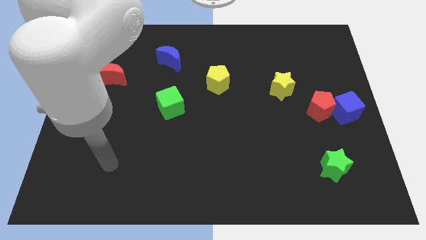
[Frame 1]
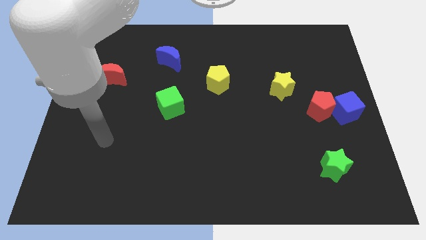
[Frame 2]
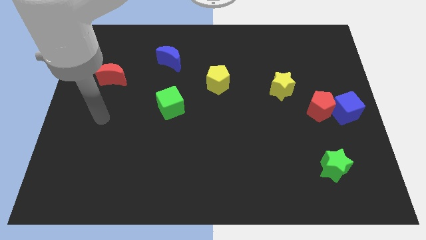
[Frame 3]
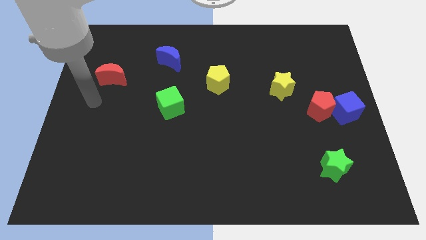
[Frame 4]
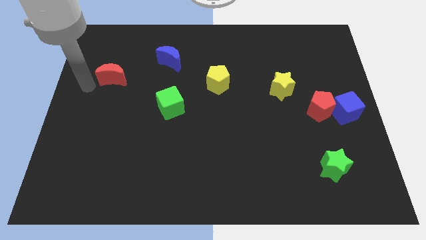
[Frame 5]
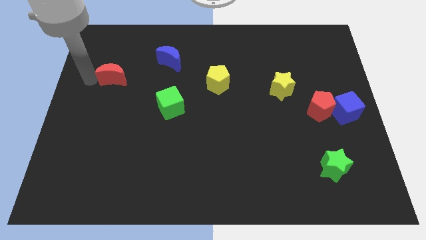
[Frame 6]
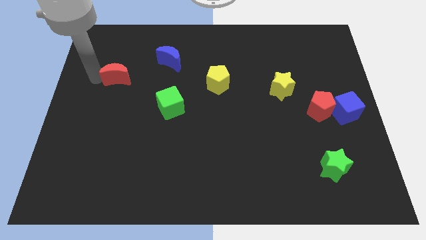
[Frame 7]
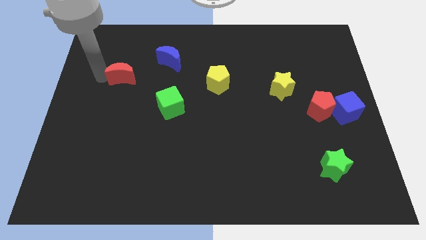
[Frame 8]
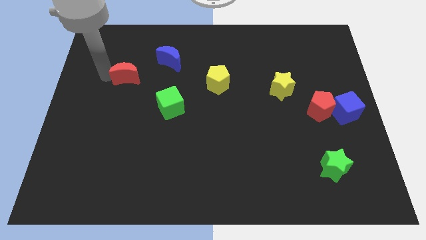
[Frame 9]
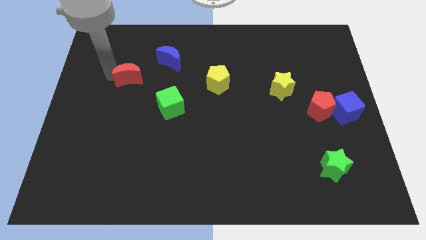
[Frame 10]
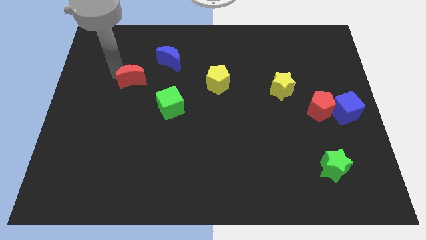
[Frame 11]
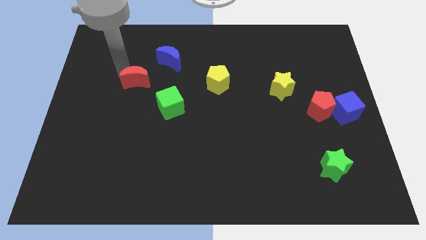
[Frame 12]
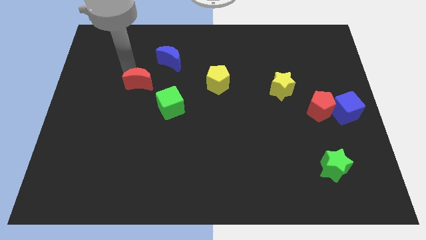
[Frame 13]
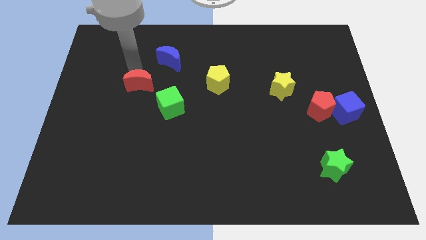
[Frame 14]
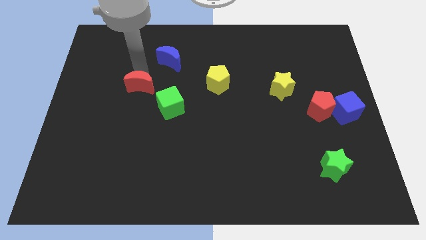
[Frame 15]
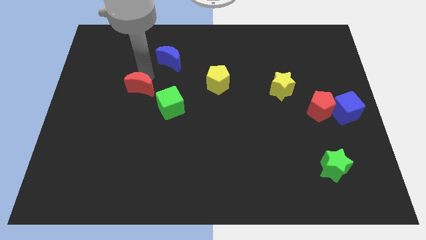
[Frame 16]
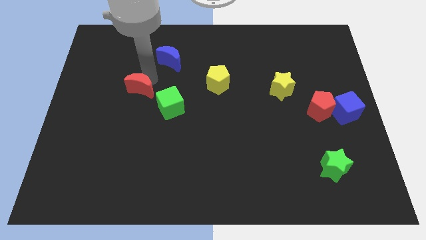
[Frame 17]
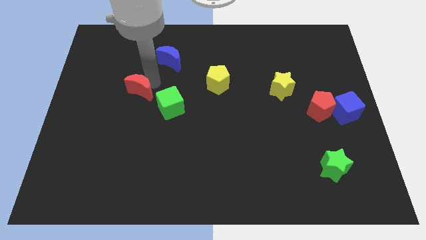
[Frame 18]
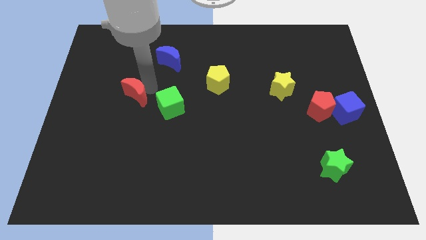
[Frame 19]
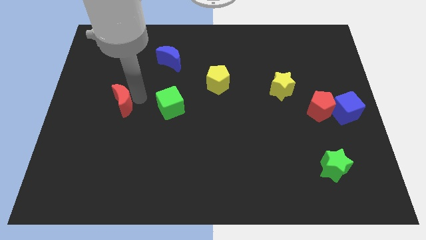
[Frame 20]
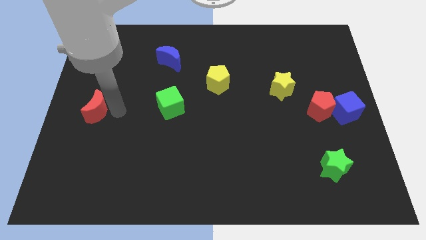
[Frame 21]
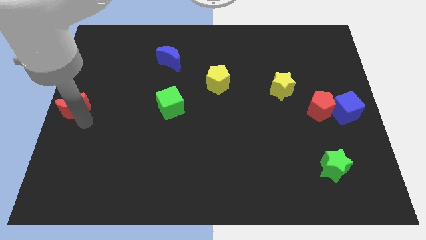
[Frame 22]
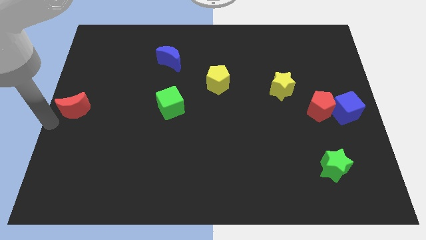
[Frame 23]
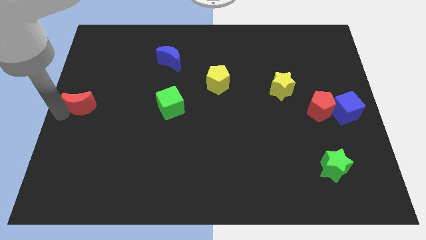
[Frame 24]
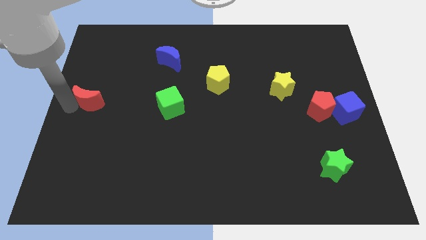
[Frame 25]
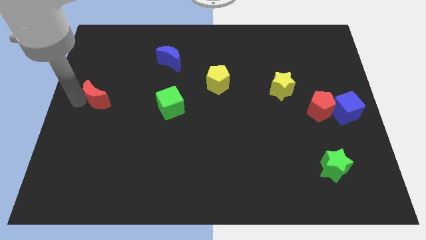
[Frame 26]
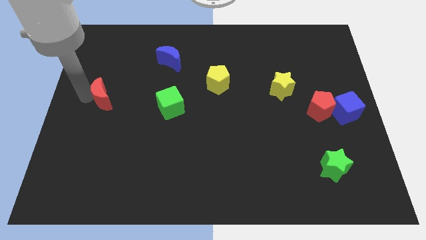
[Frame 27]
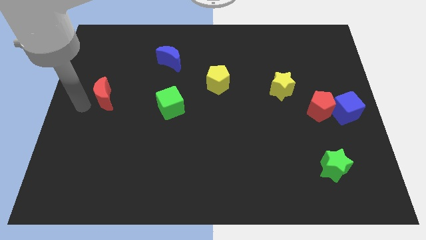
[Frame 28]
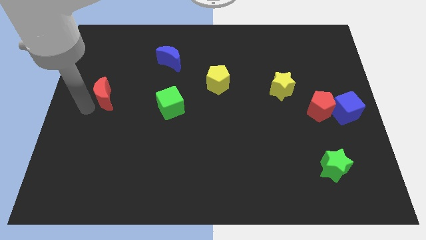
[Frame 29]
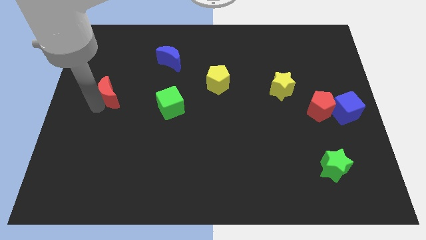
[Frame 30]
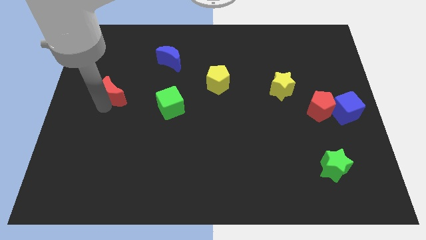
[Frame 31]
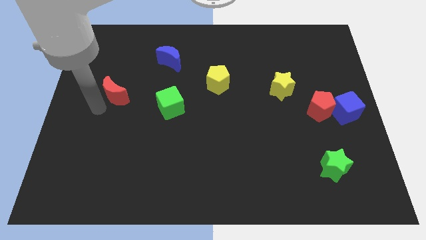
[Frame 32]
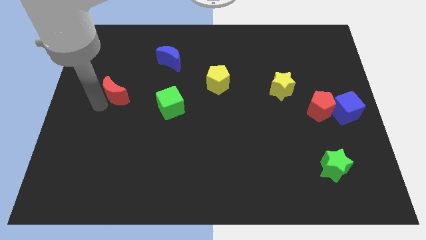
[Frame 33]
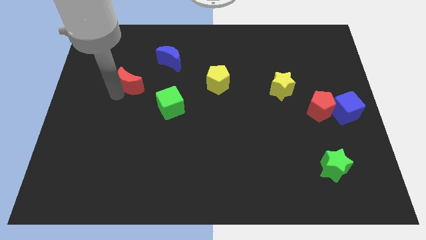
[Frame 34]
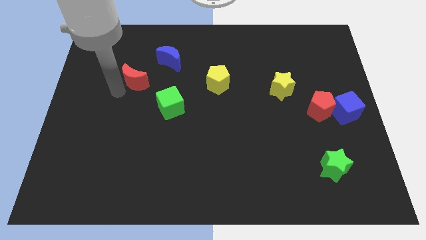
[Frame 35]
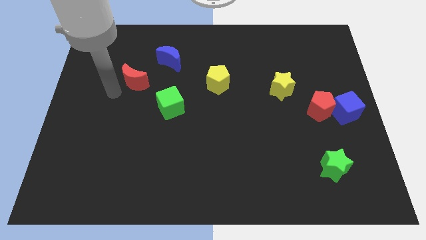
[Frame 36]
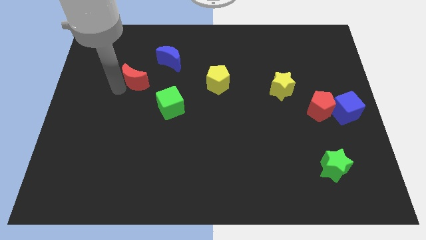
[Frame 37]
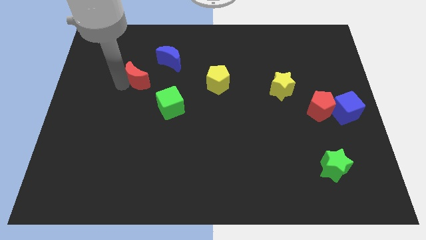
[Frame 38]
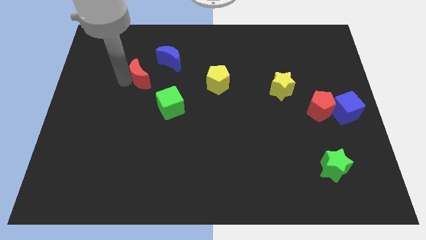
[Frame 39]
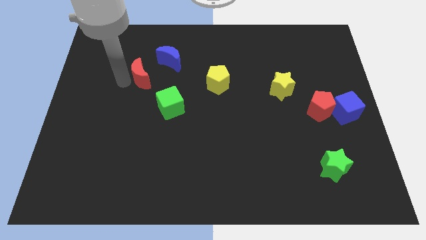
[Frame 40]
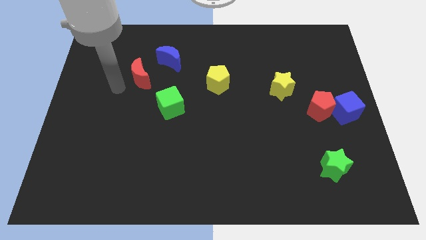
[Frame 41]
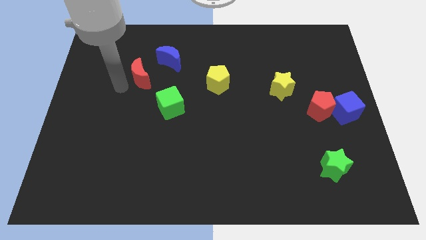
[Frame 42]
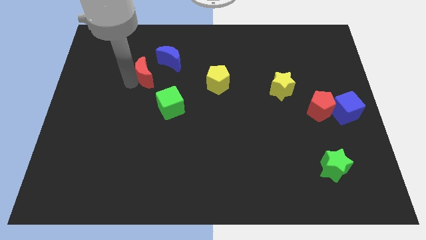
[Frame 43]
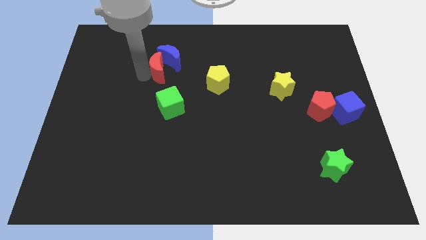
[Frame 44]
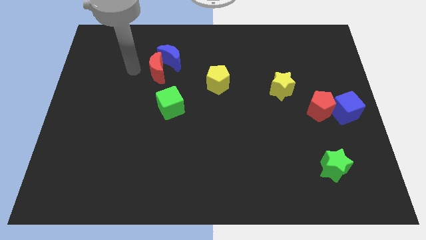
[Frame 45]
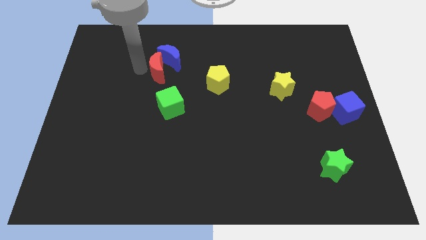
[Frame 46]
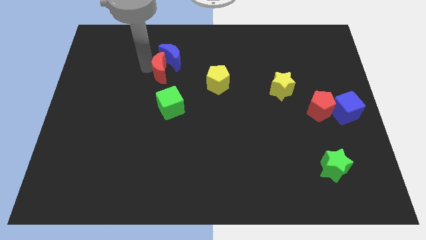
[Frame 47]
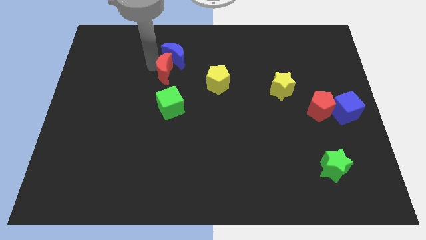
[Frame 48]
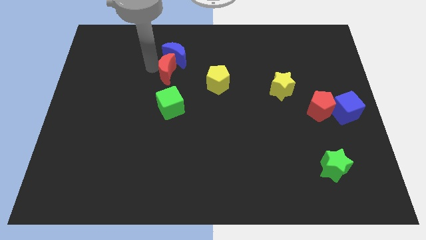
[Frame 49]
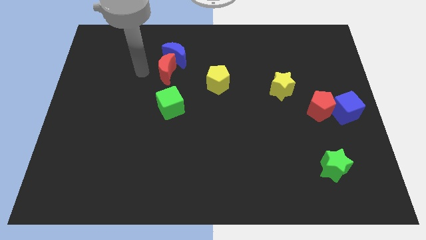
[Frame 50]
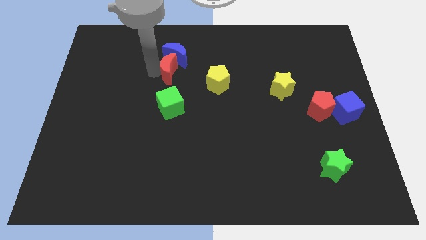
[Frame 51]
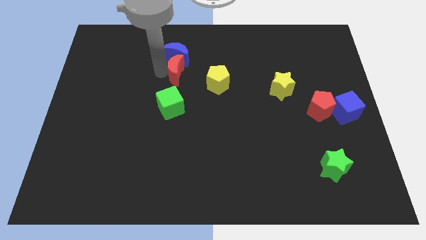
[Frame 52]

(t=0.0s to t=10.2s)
move the red moon to the bottom right of the blue moon

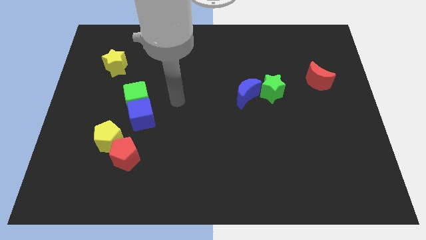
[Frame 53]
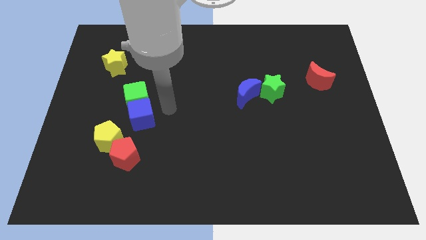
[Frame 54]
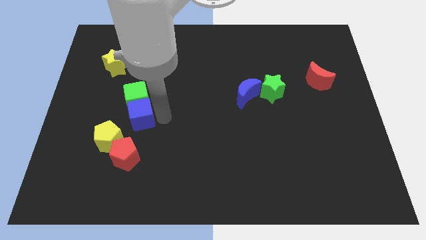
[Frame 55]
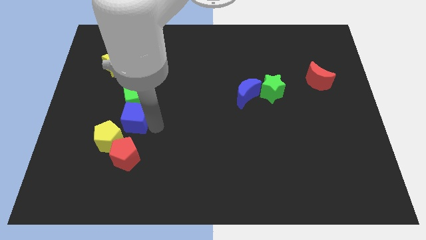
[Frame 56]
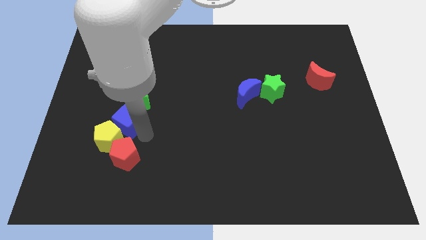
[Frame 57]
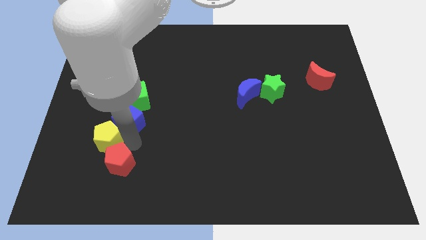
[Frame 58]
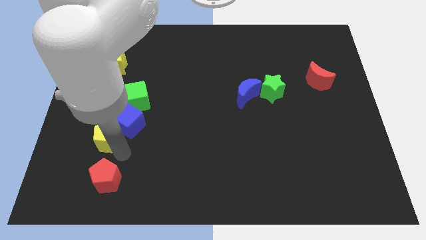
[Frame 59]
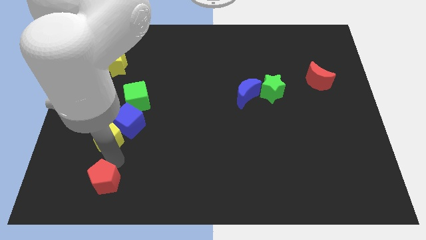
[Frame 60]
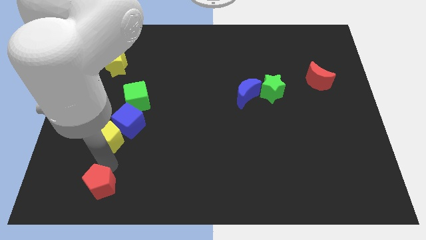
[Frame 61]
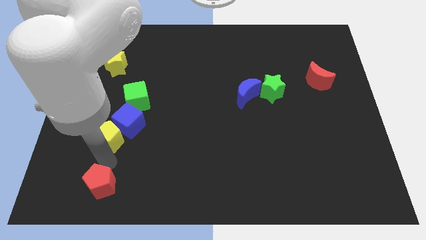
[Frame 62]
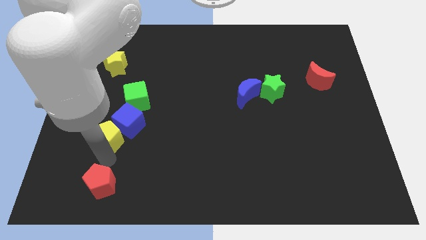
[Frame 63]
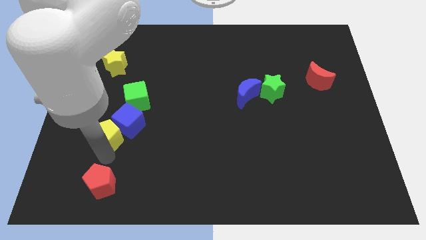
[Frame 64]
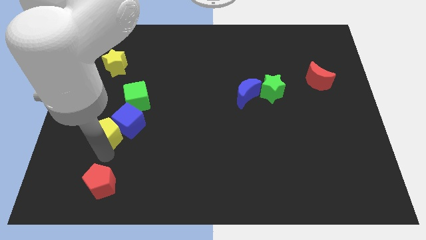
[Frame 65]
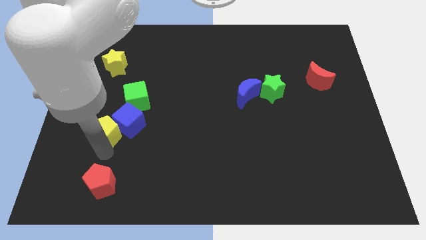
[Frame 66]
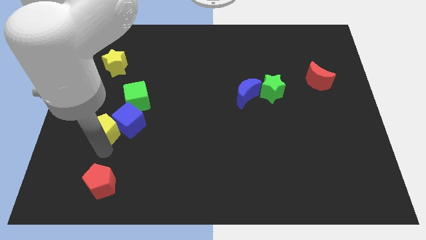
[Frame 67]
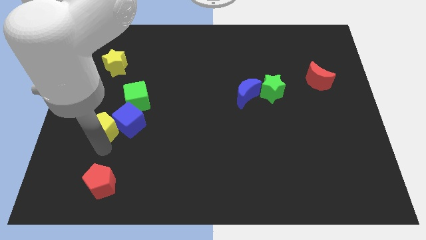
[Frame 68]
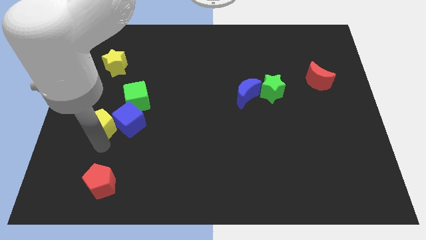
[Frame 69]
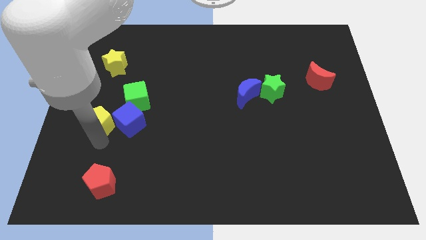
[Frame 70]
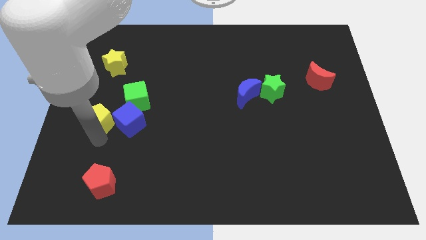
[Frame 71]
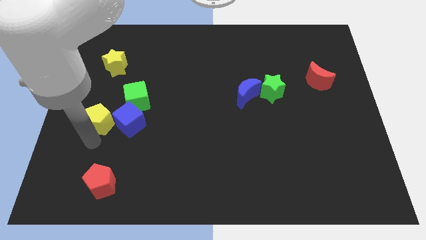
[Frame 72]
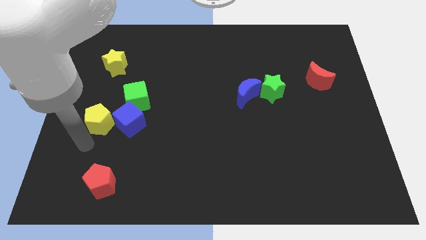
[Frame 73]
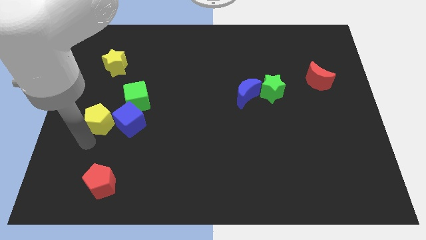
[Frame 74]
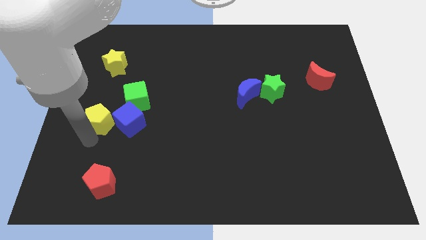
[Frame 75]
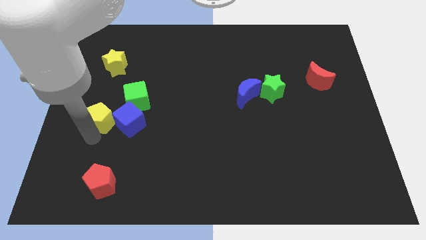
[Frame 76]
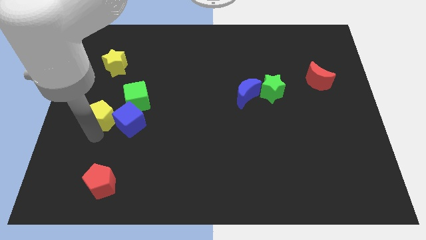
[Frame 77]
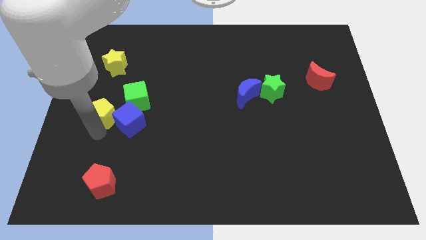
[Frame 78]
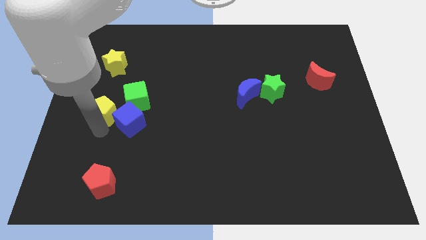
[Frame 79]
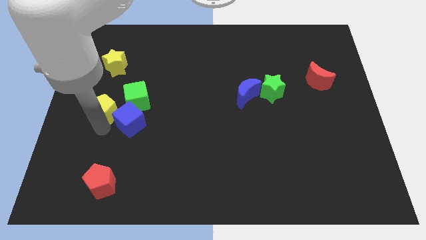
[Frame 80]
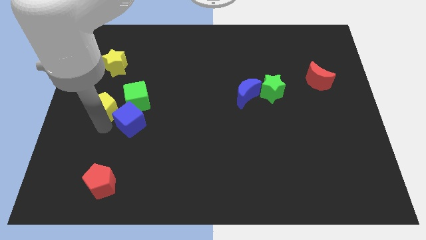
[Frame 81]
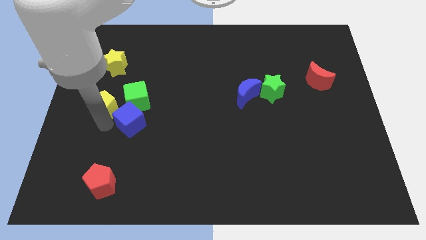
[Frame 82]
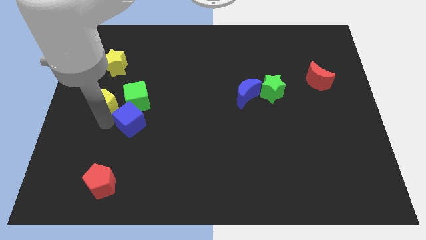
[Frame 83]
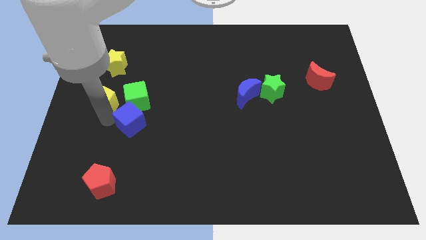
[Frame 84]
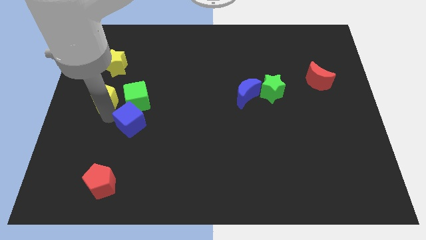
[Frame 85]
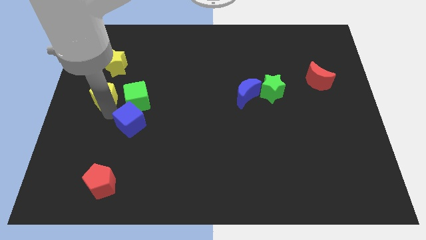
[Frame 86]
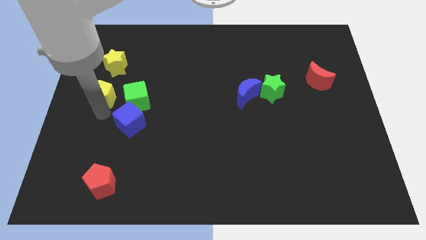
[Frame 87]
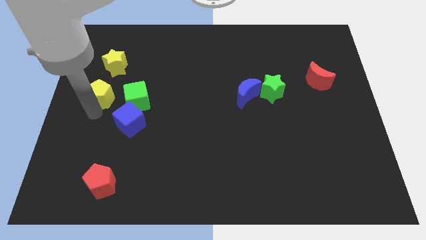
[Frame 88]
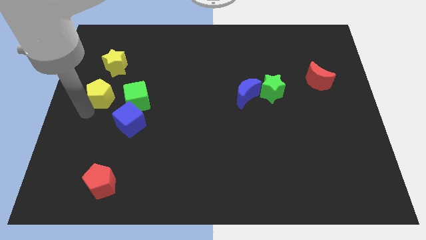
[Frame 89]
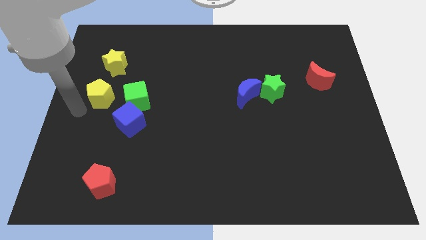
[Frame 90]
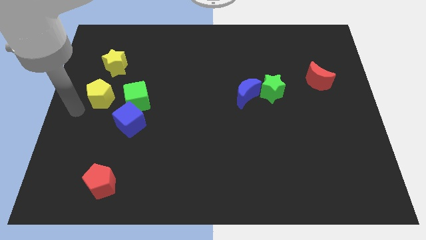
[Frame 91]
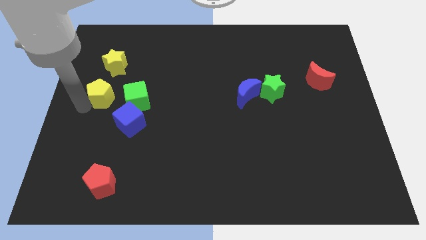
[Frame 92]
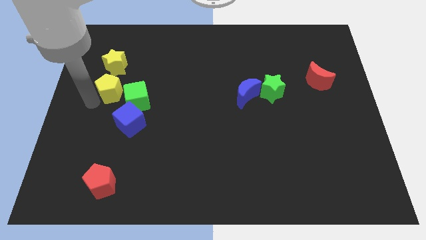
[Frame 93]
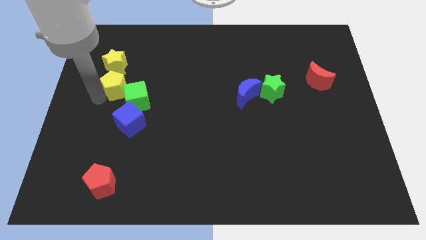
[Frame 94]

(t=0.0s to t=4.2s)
move the yellow pentagon to the bottom right side of the yellow star
